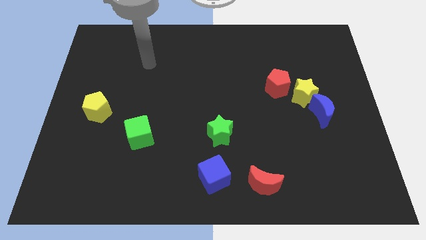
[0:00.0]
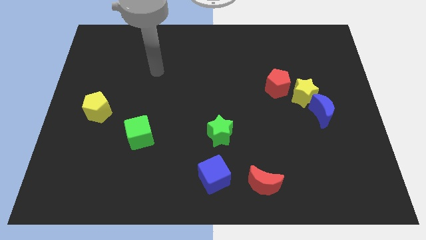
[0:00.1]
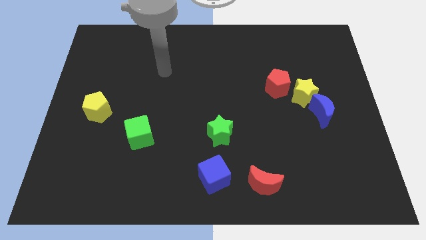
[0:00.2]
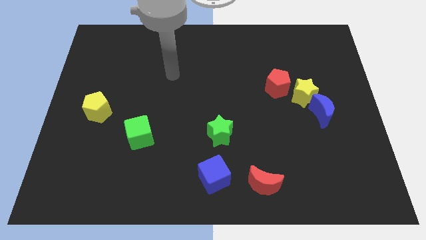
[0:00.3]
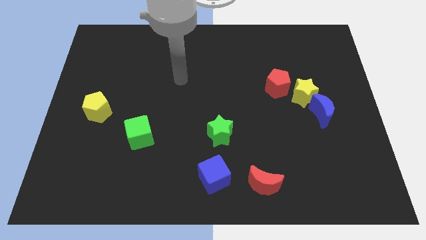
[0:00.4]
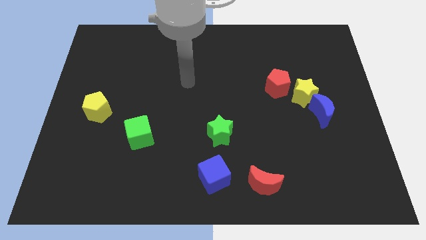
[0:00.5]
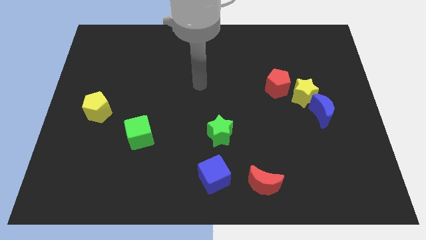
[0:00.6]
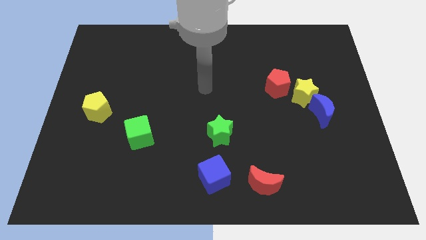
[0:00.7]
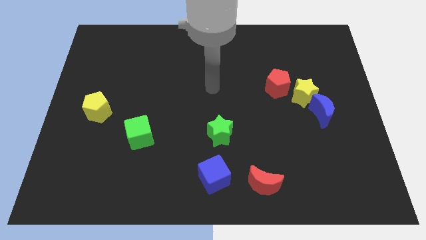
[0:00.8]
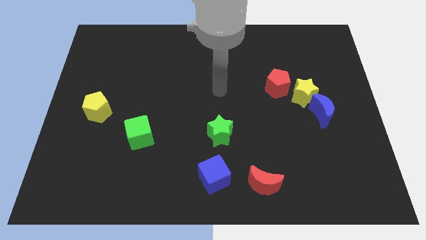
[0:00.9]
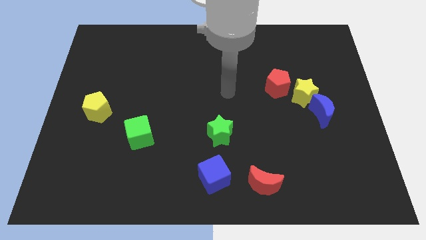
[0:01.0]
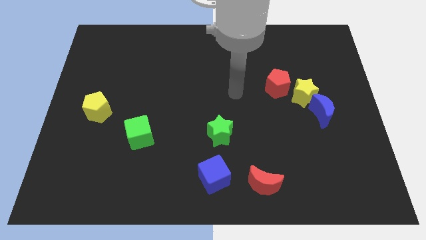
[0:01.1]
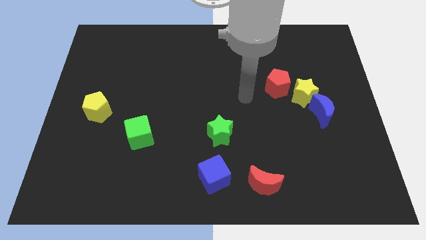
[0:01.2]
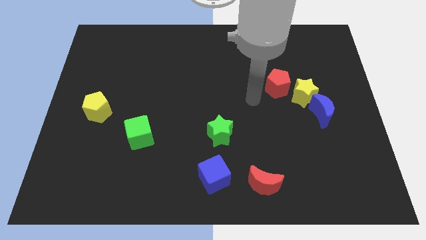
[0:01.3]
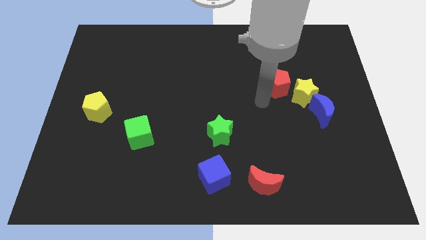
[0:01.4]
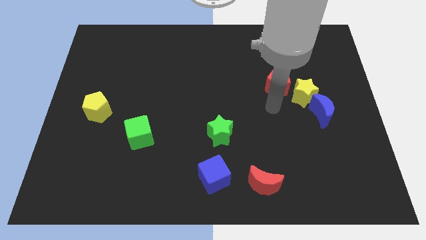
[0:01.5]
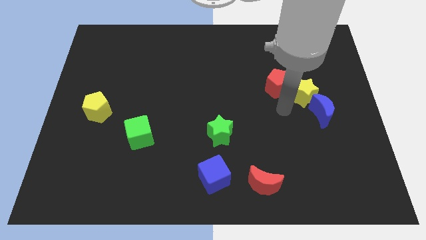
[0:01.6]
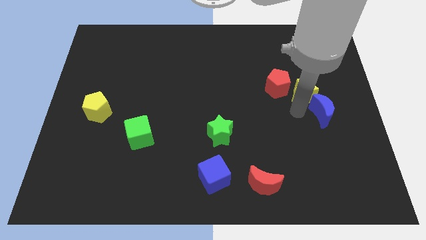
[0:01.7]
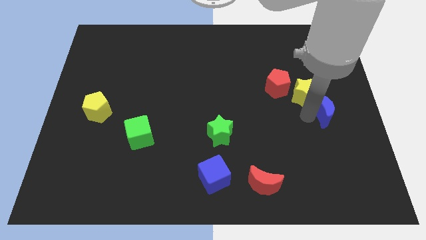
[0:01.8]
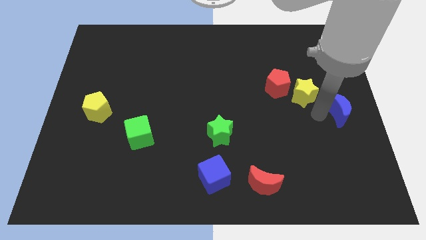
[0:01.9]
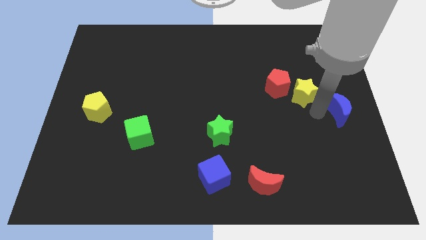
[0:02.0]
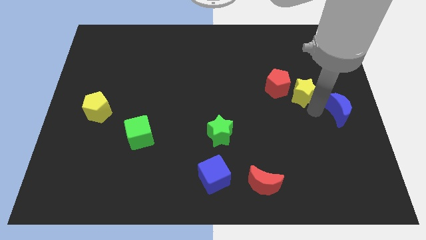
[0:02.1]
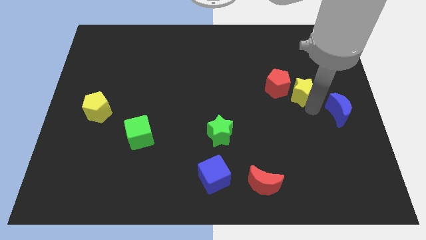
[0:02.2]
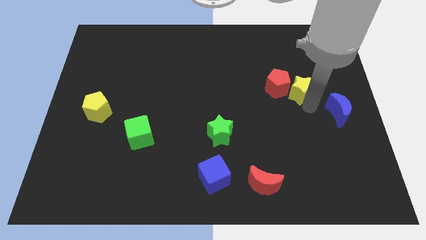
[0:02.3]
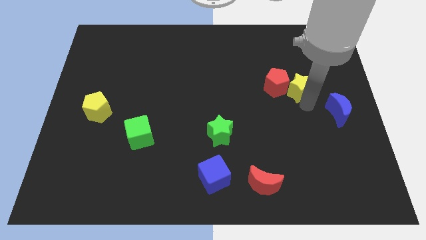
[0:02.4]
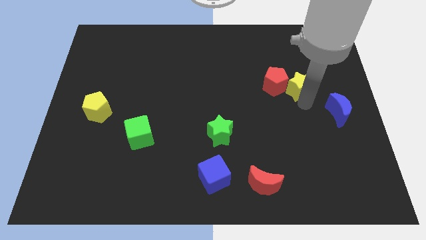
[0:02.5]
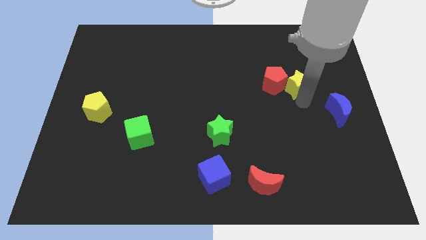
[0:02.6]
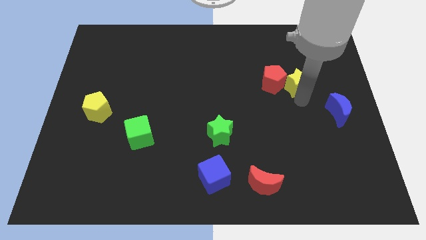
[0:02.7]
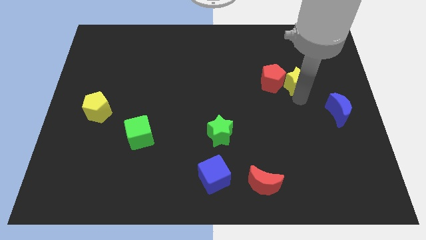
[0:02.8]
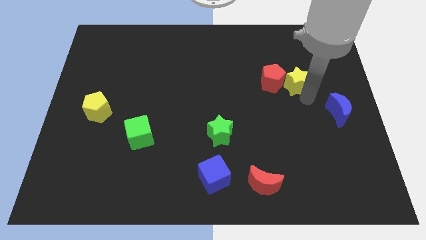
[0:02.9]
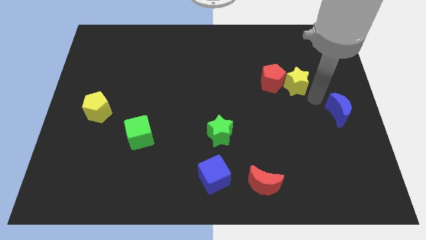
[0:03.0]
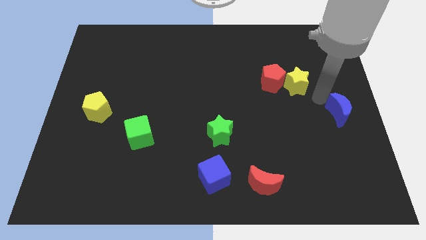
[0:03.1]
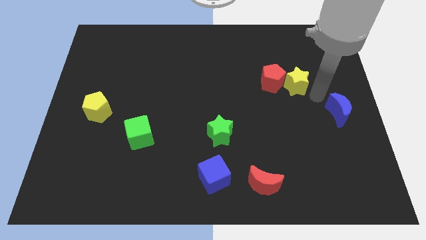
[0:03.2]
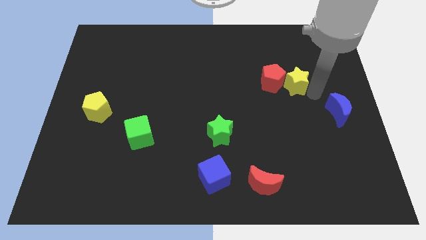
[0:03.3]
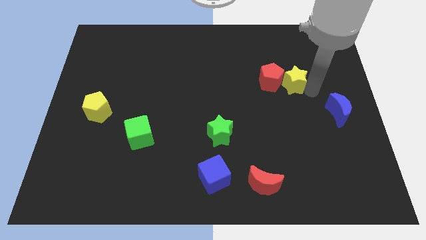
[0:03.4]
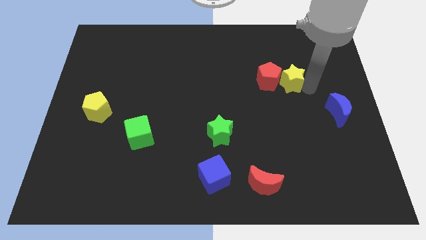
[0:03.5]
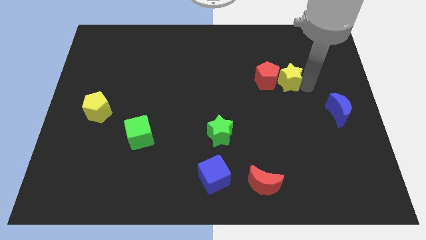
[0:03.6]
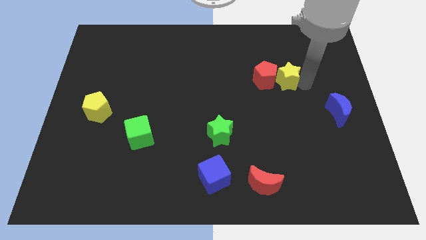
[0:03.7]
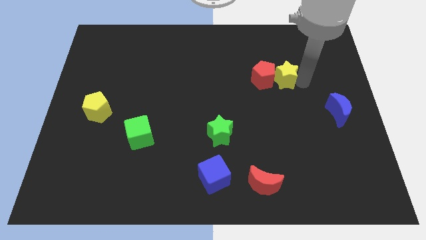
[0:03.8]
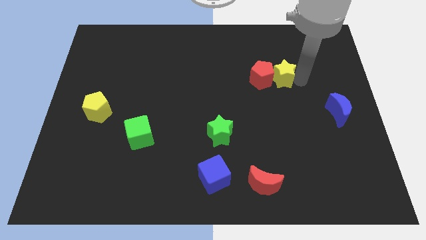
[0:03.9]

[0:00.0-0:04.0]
slightly slide the yellow star upwards and to the left

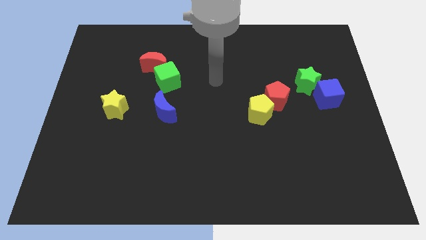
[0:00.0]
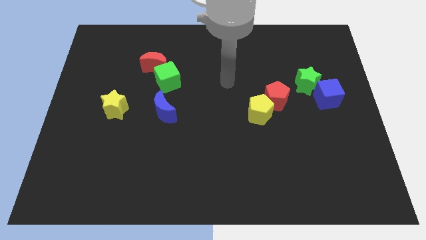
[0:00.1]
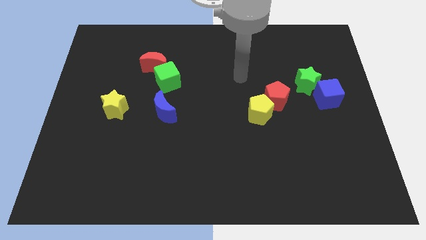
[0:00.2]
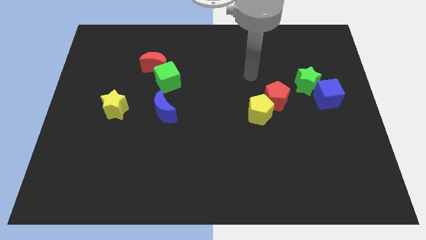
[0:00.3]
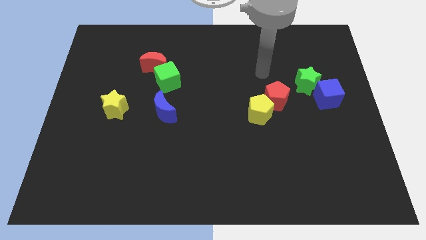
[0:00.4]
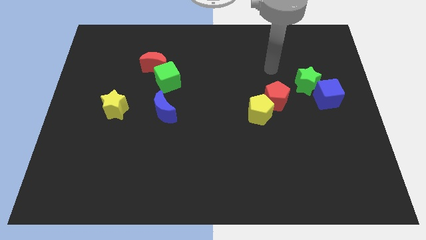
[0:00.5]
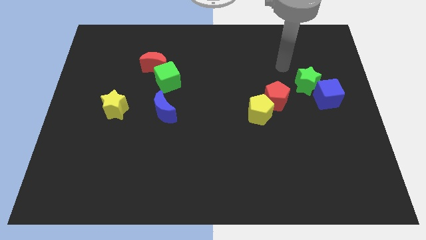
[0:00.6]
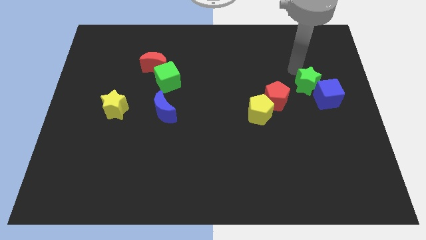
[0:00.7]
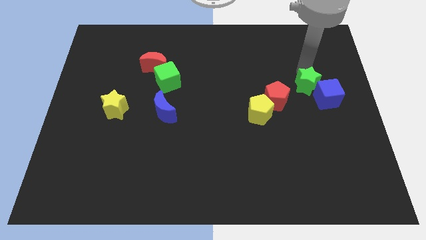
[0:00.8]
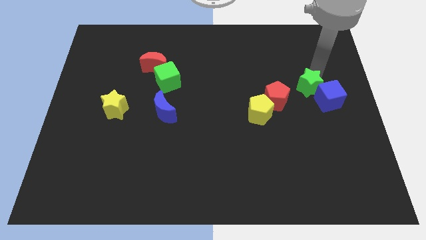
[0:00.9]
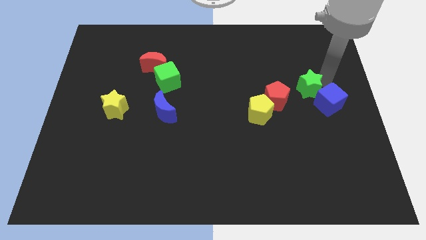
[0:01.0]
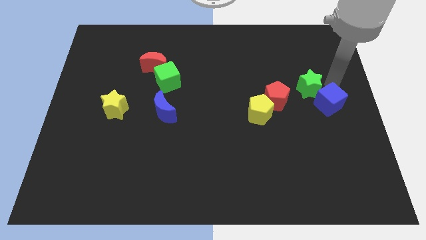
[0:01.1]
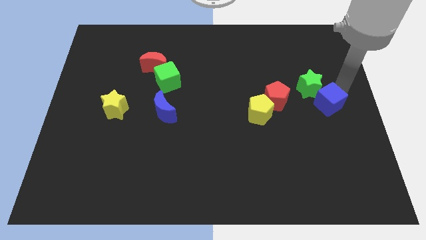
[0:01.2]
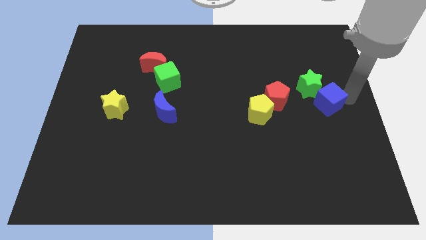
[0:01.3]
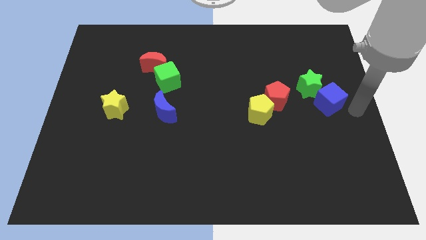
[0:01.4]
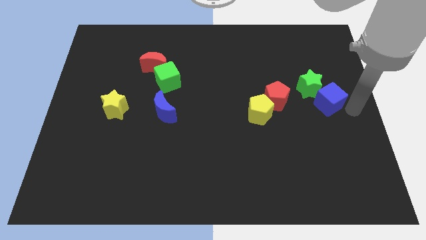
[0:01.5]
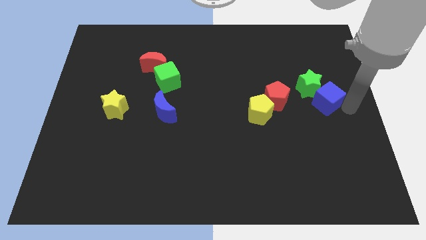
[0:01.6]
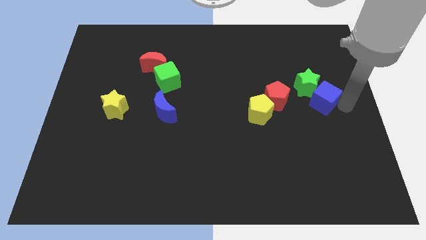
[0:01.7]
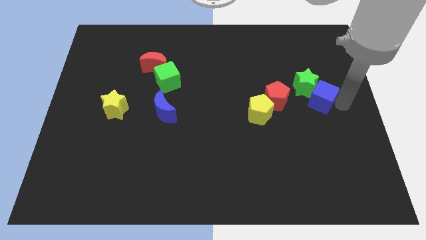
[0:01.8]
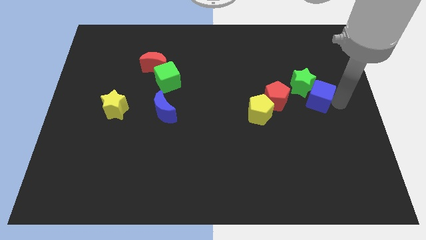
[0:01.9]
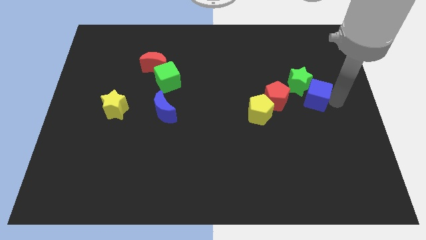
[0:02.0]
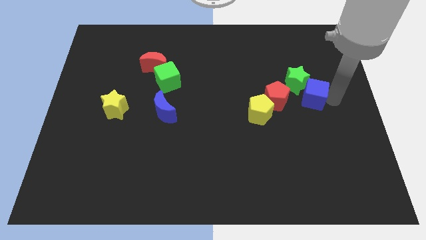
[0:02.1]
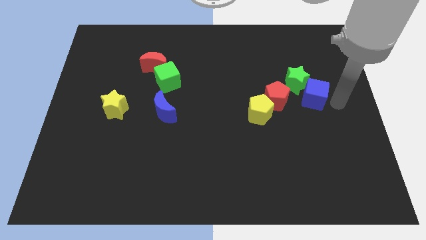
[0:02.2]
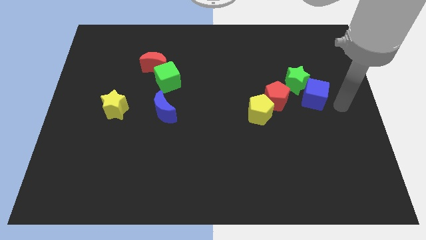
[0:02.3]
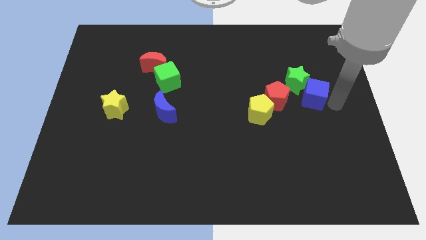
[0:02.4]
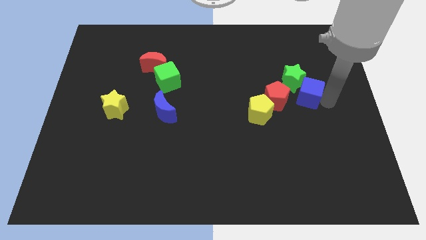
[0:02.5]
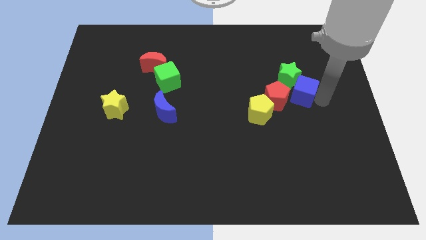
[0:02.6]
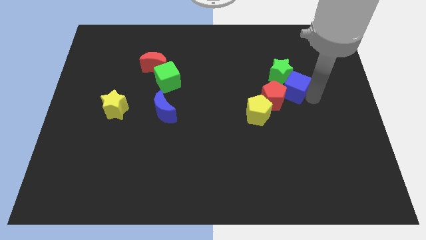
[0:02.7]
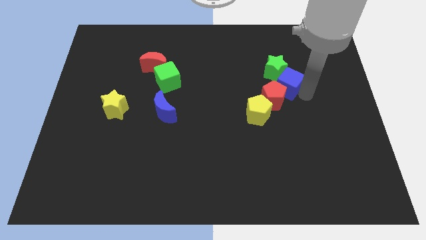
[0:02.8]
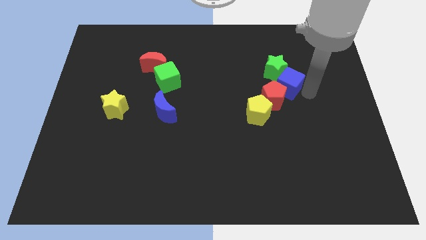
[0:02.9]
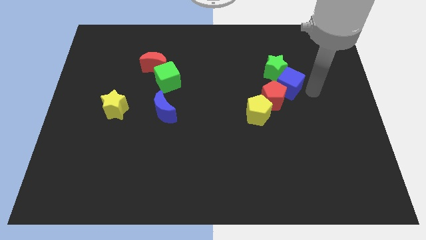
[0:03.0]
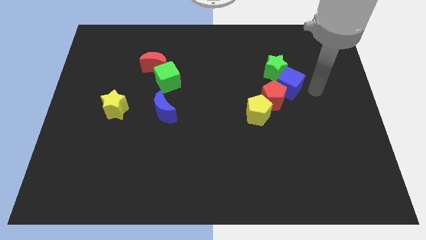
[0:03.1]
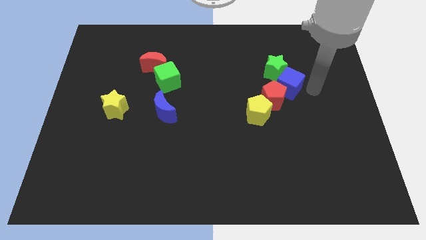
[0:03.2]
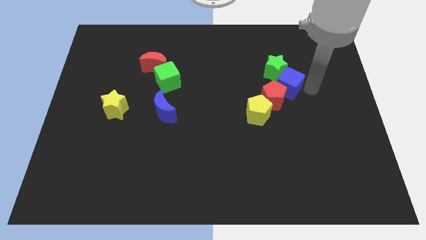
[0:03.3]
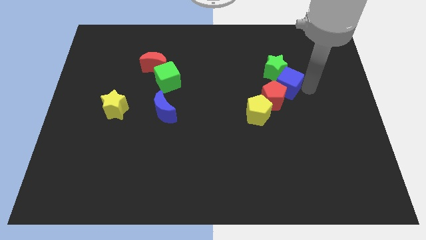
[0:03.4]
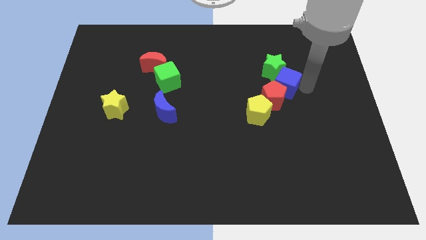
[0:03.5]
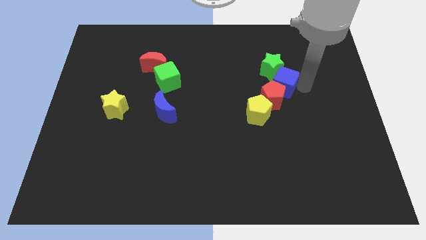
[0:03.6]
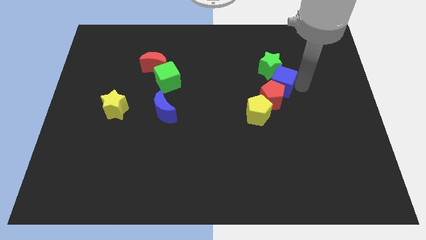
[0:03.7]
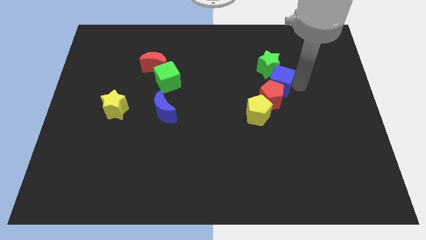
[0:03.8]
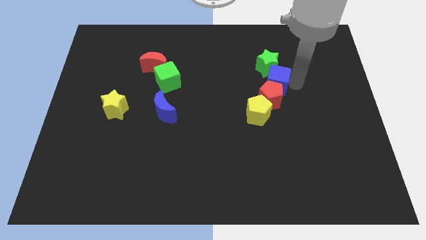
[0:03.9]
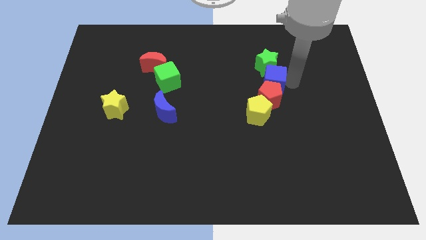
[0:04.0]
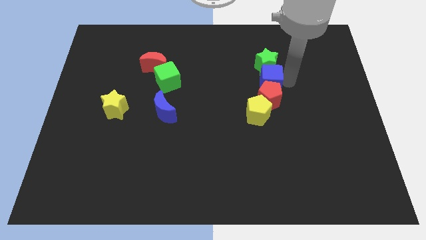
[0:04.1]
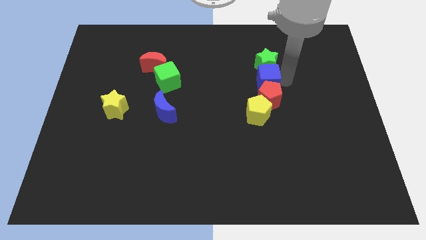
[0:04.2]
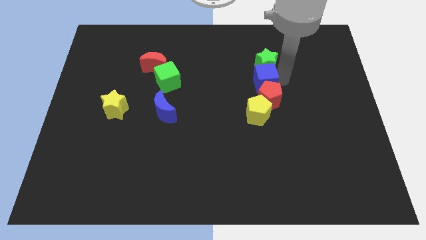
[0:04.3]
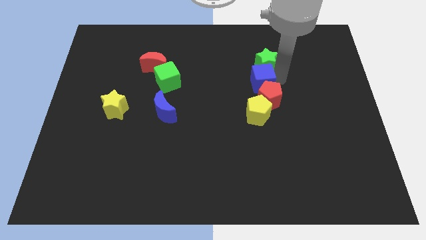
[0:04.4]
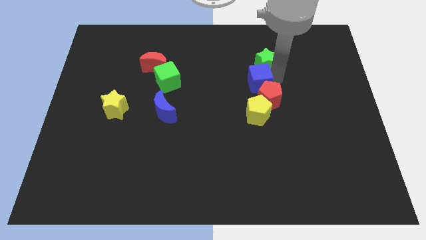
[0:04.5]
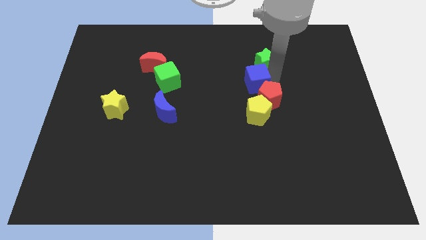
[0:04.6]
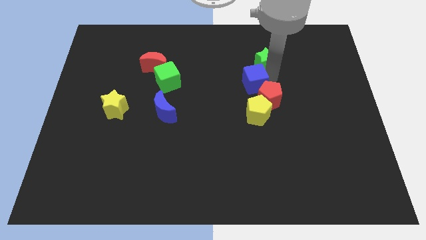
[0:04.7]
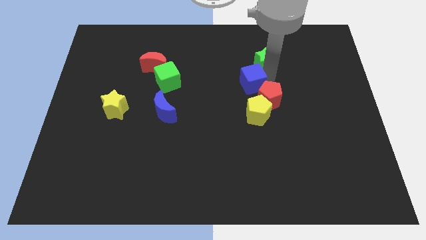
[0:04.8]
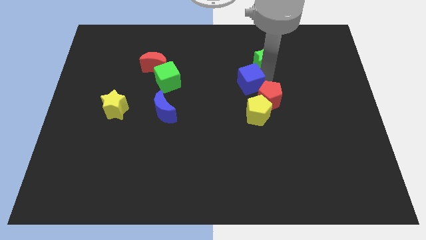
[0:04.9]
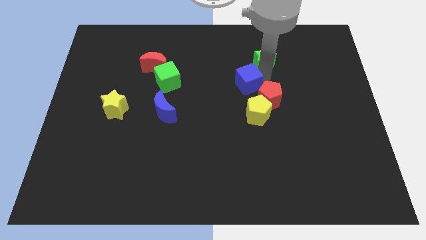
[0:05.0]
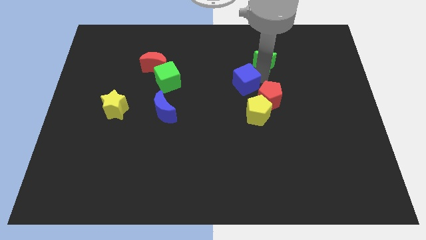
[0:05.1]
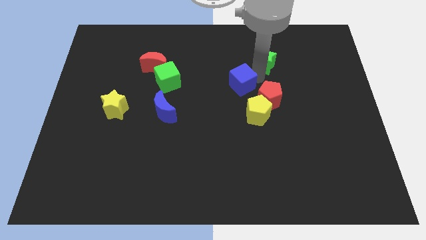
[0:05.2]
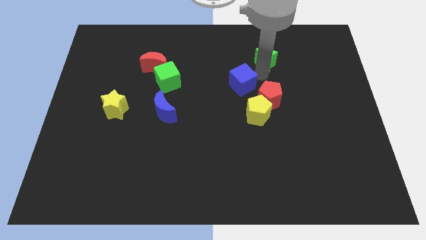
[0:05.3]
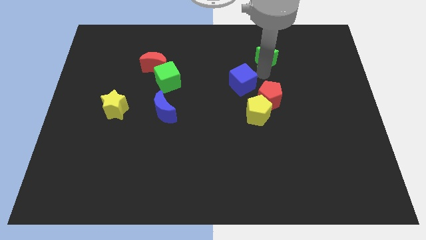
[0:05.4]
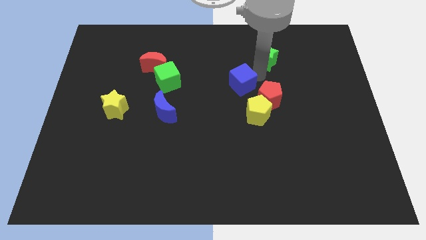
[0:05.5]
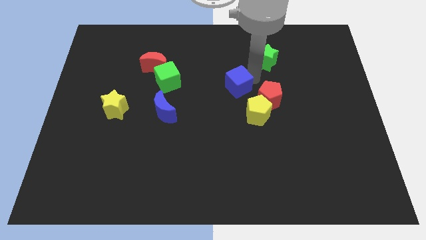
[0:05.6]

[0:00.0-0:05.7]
push the blue cube to the left
